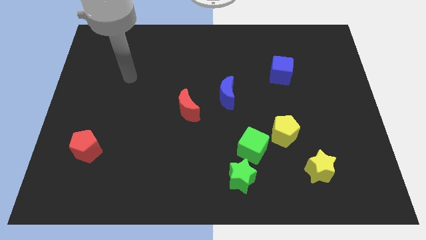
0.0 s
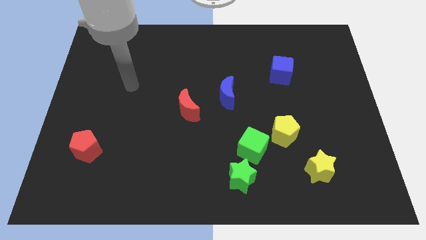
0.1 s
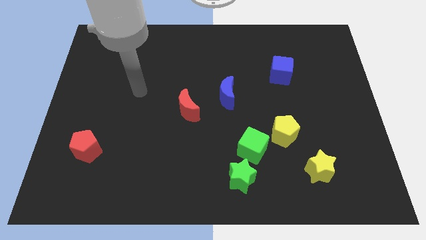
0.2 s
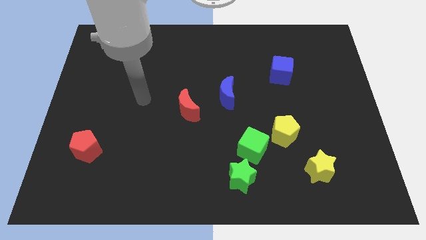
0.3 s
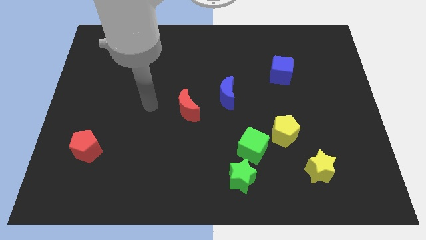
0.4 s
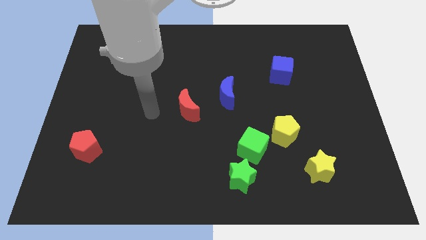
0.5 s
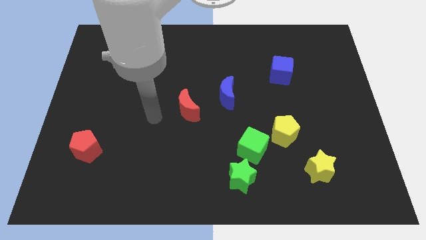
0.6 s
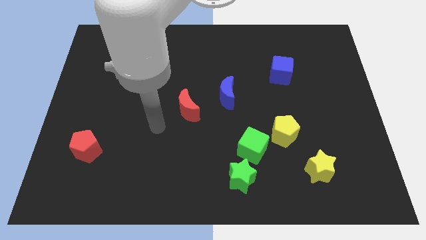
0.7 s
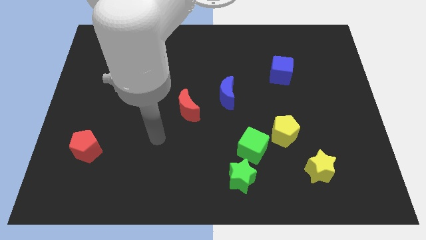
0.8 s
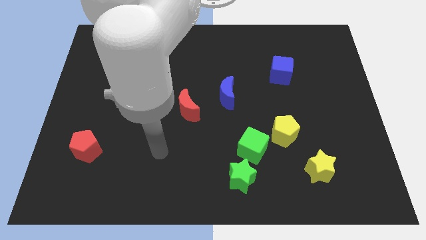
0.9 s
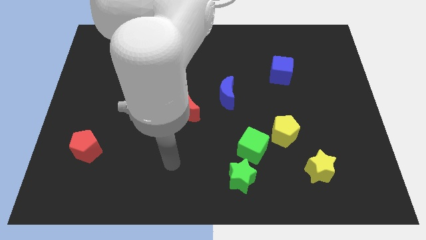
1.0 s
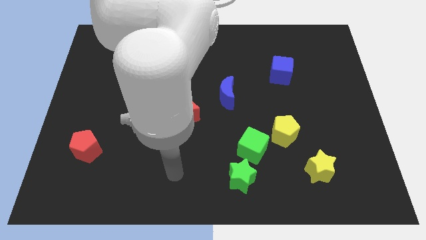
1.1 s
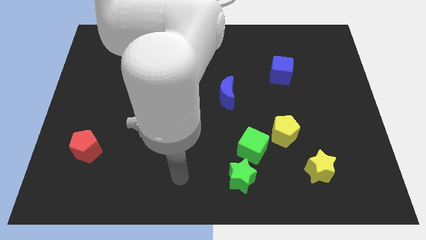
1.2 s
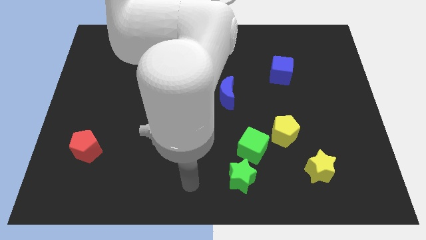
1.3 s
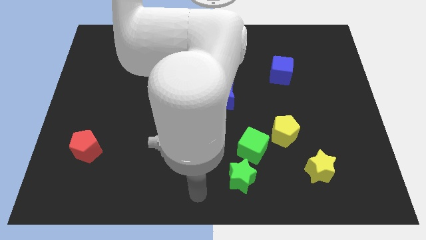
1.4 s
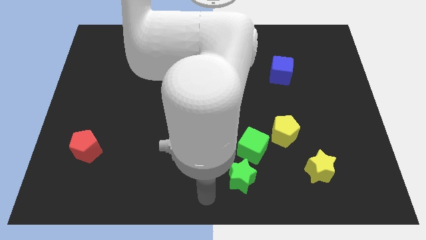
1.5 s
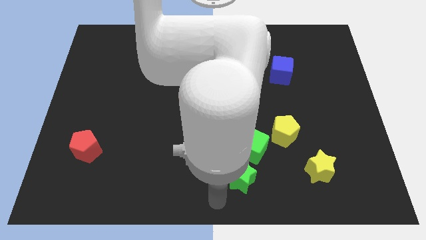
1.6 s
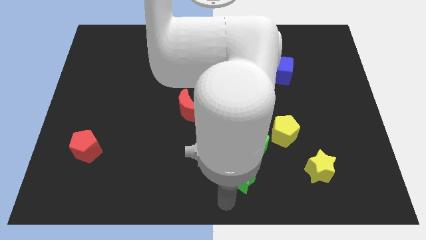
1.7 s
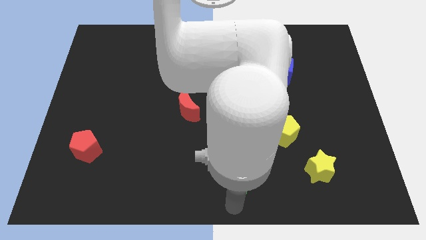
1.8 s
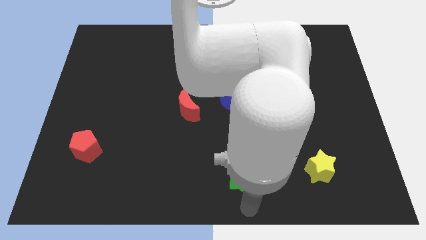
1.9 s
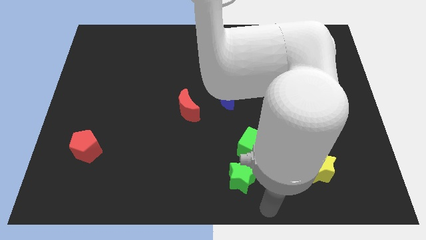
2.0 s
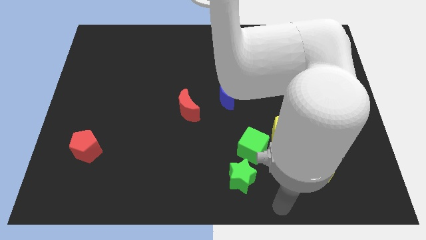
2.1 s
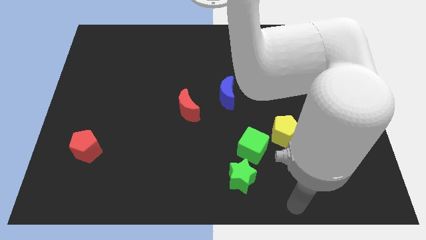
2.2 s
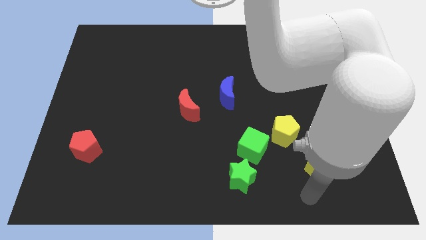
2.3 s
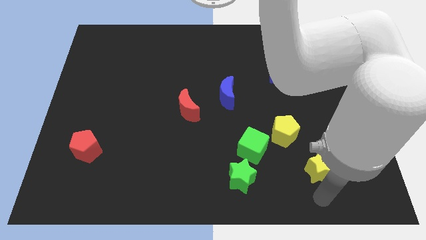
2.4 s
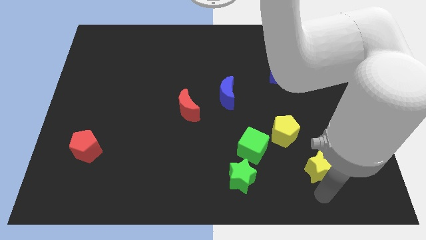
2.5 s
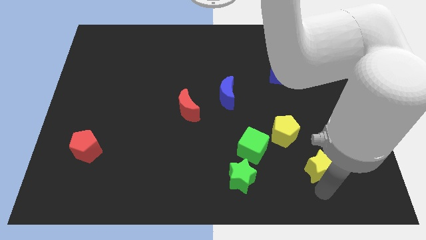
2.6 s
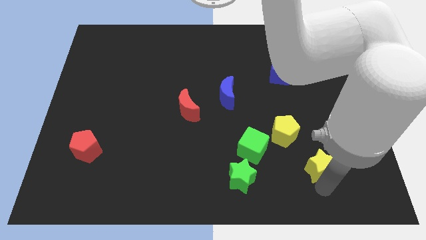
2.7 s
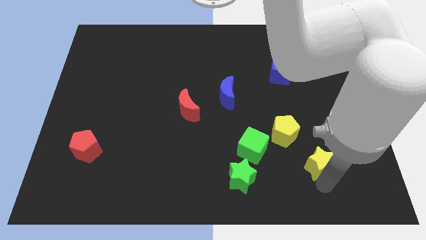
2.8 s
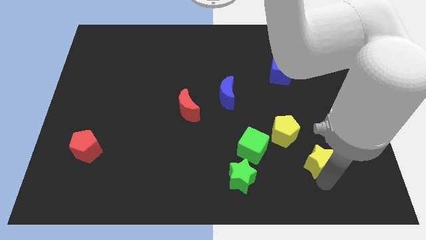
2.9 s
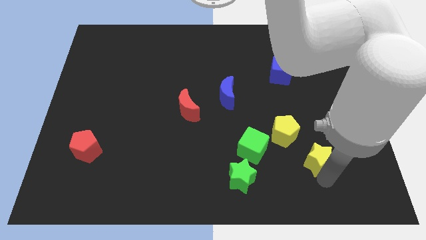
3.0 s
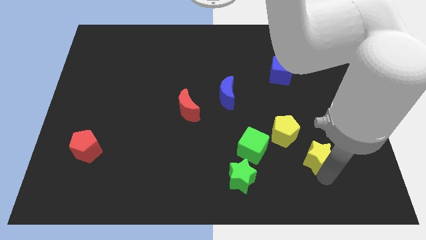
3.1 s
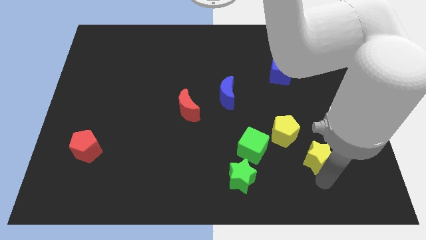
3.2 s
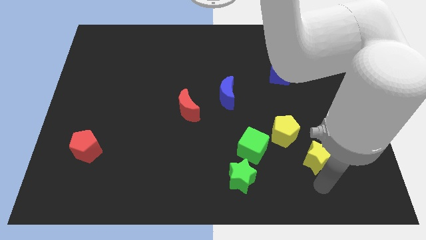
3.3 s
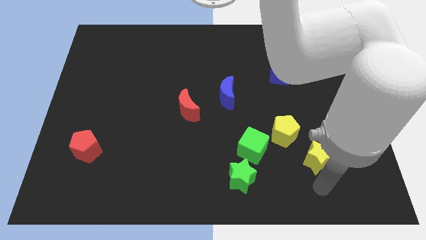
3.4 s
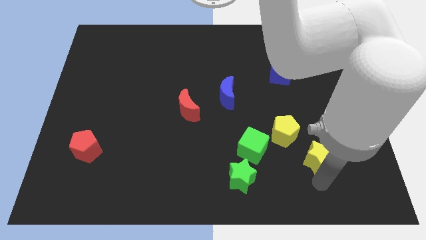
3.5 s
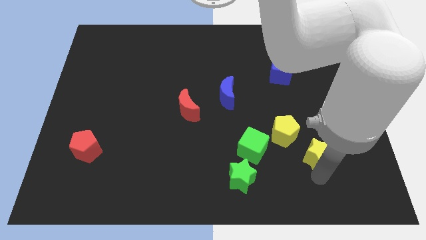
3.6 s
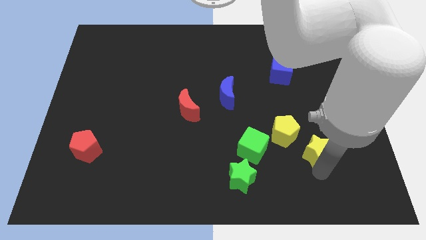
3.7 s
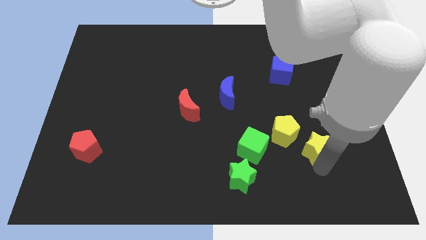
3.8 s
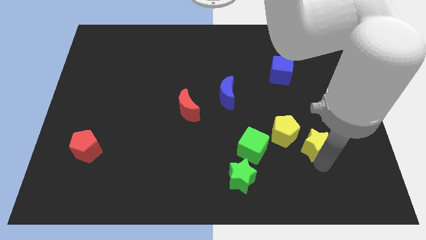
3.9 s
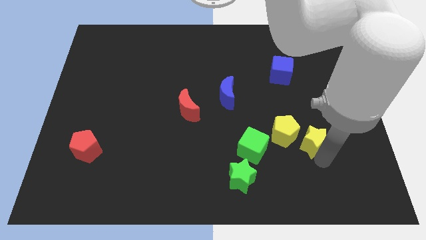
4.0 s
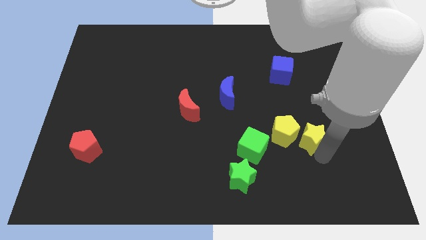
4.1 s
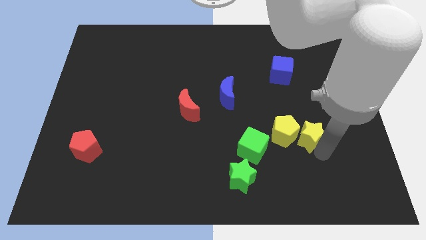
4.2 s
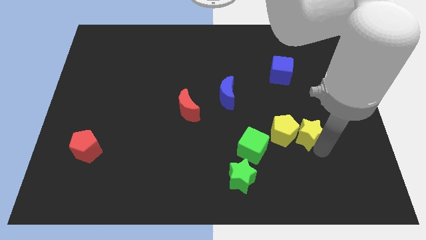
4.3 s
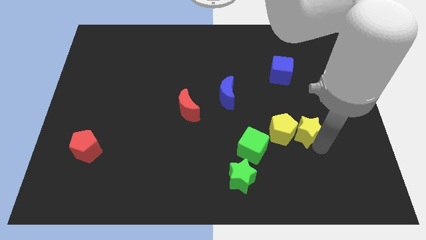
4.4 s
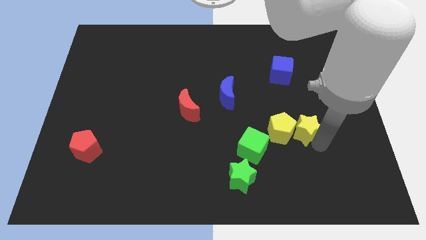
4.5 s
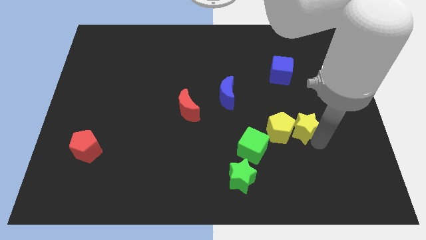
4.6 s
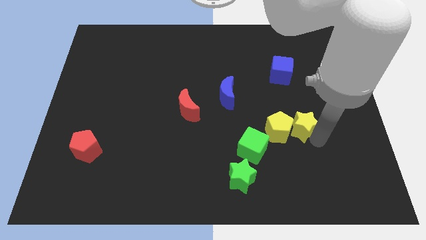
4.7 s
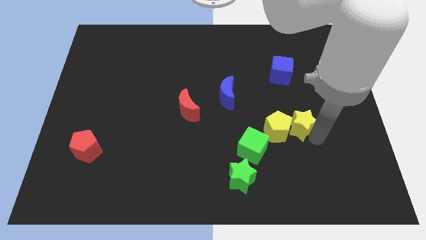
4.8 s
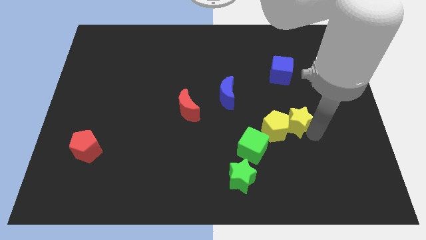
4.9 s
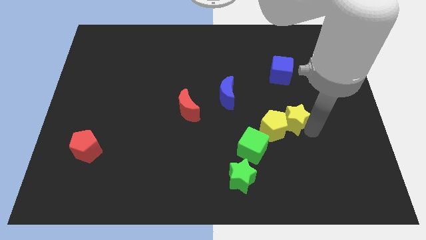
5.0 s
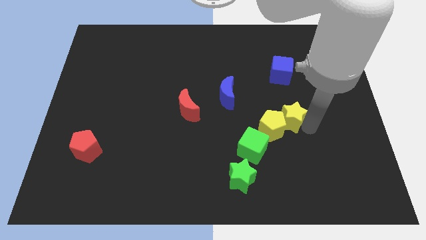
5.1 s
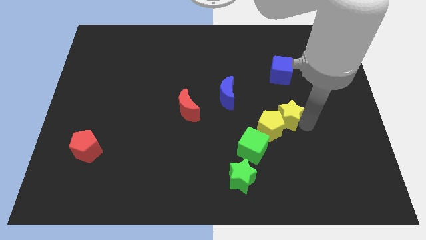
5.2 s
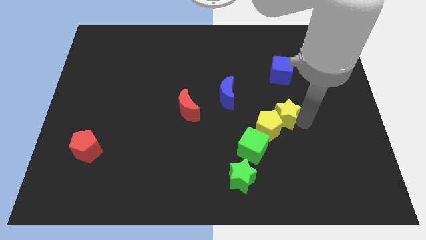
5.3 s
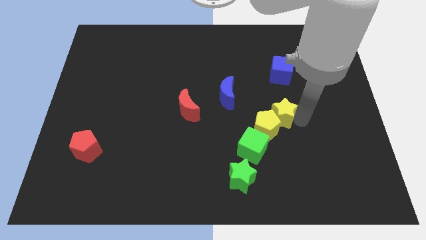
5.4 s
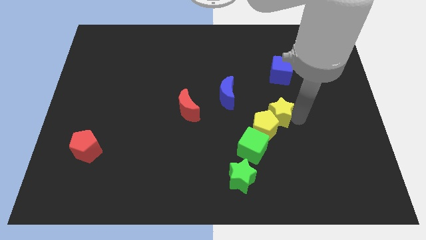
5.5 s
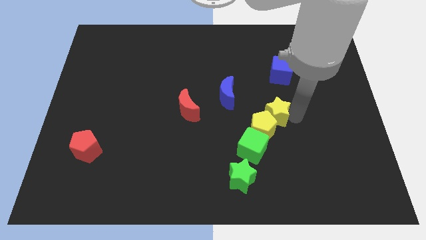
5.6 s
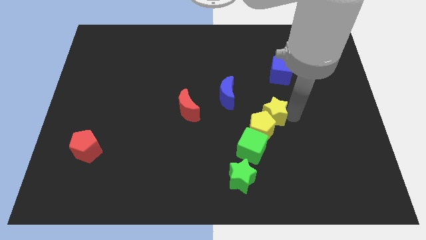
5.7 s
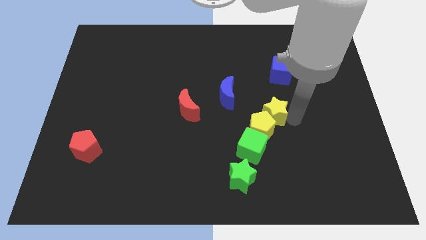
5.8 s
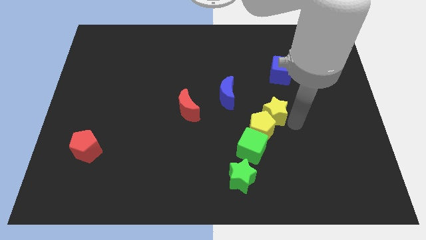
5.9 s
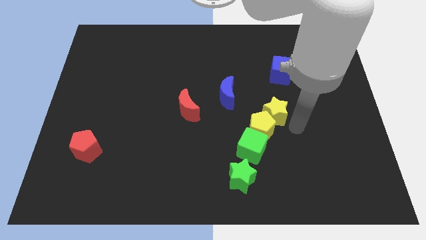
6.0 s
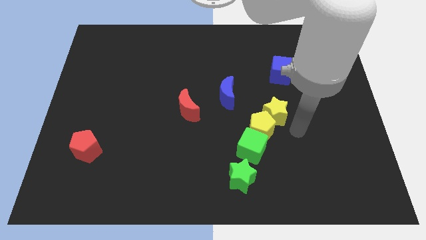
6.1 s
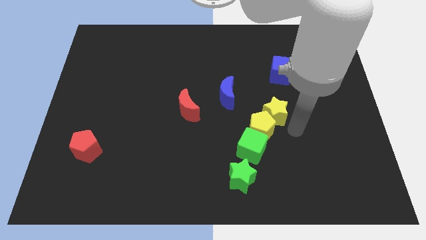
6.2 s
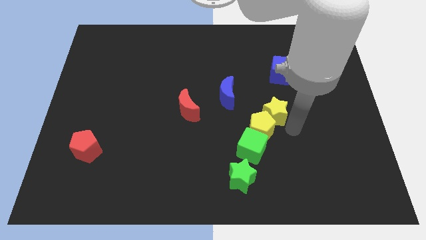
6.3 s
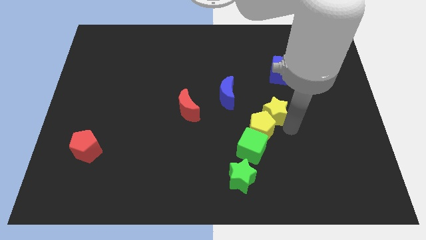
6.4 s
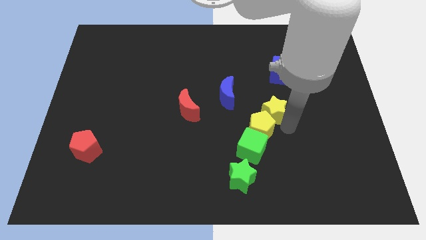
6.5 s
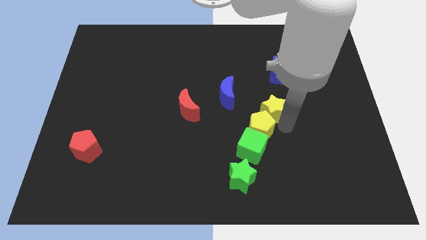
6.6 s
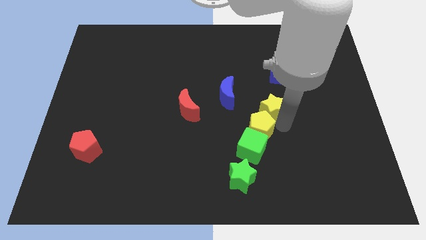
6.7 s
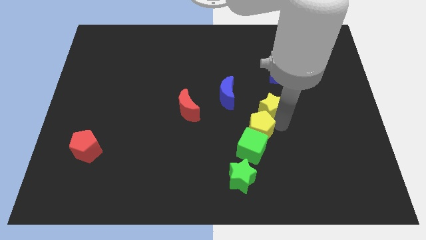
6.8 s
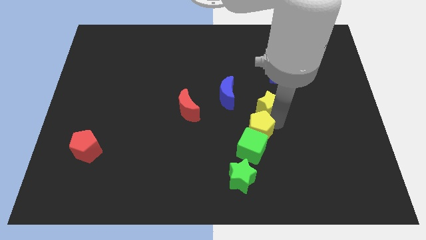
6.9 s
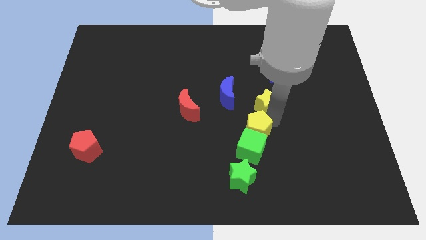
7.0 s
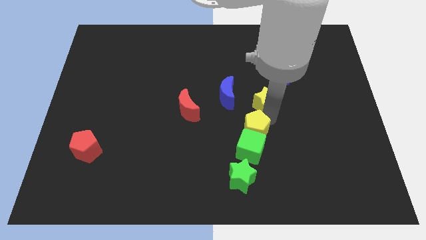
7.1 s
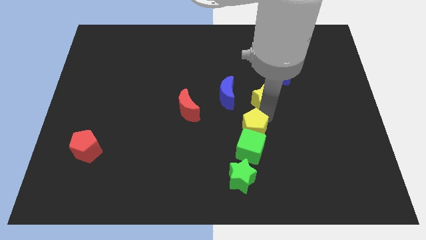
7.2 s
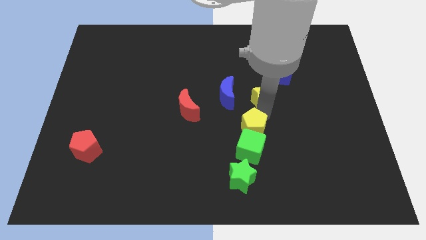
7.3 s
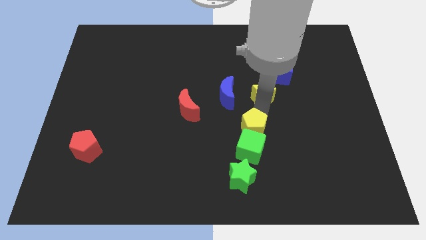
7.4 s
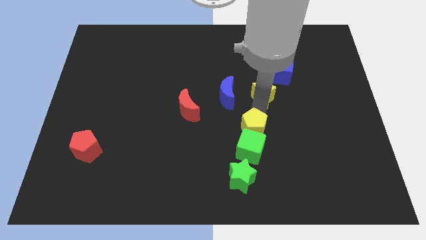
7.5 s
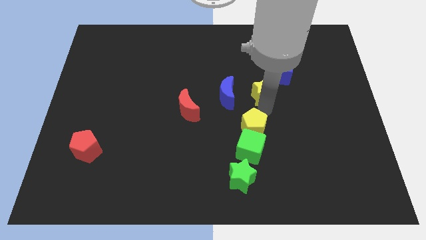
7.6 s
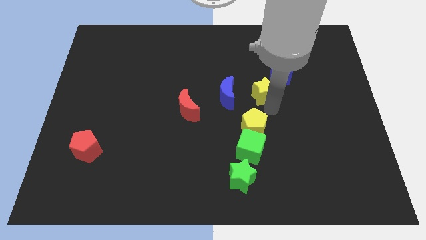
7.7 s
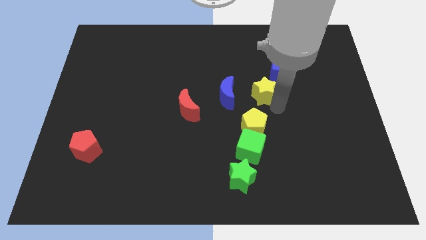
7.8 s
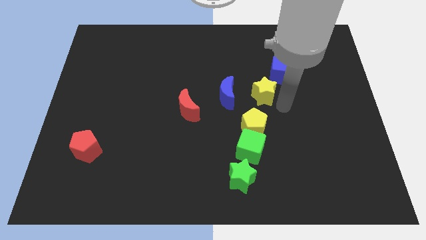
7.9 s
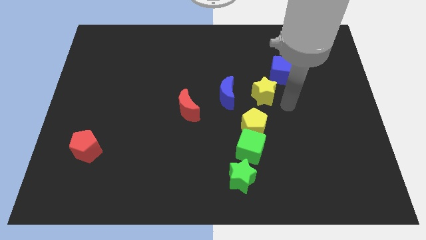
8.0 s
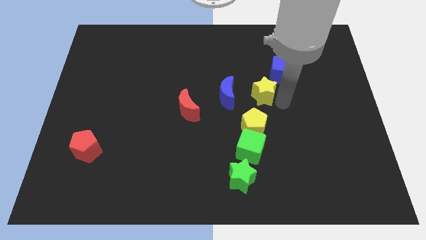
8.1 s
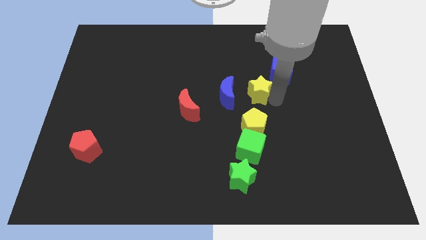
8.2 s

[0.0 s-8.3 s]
push the yellow star diagonally up and to the left

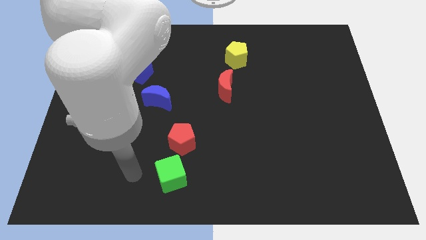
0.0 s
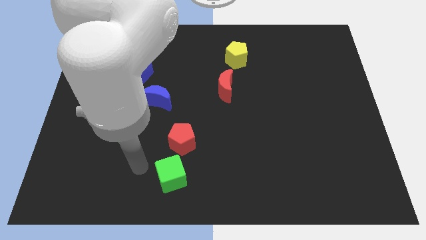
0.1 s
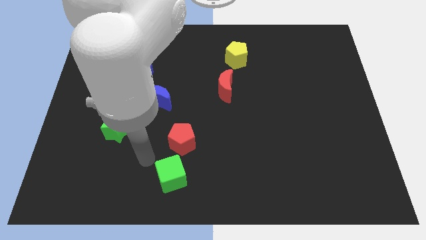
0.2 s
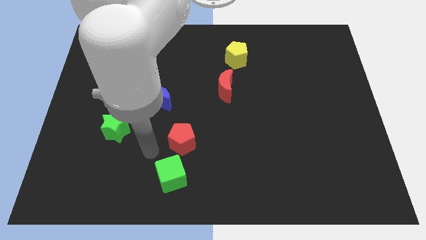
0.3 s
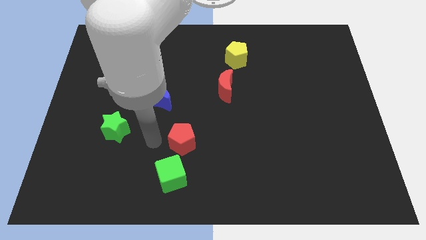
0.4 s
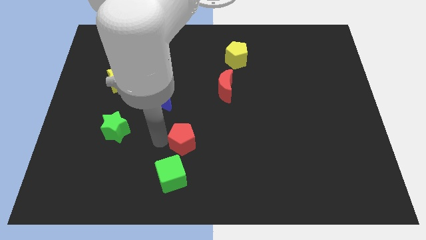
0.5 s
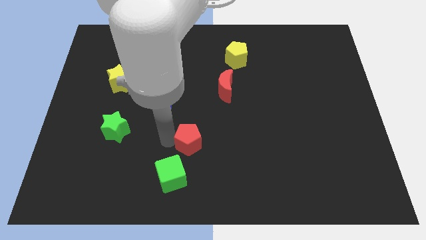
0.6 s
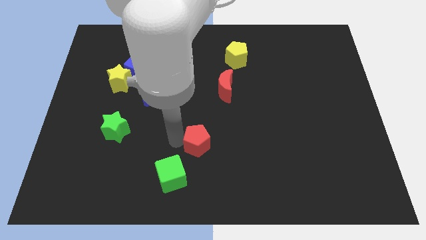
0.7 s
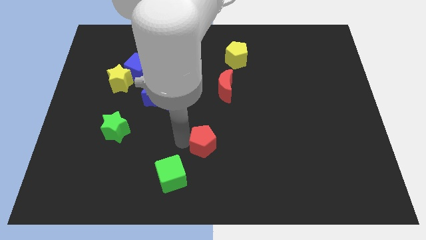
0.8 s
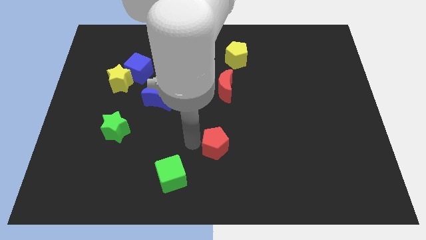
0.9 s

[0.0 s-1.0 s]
slightly slide the red pentagon right
